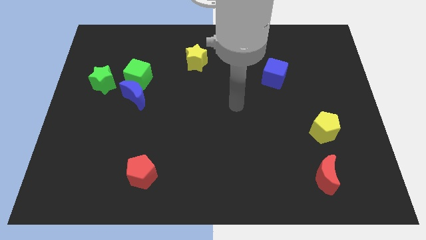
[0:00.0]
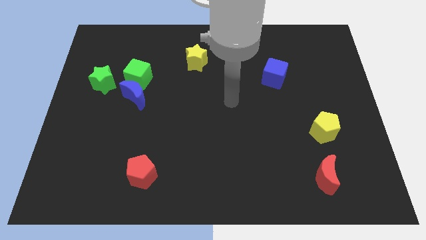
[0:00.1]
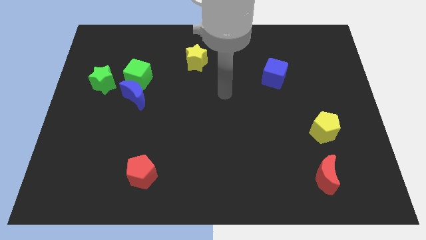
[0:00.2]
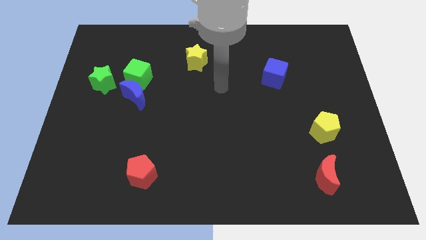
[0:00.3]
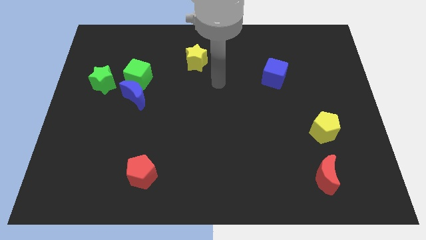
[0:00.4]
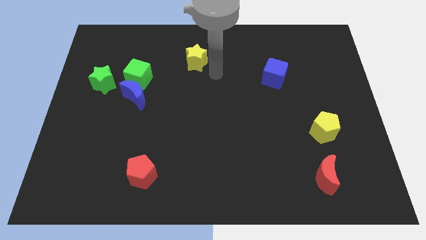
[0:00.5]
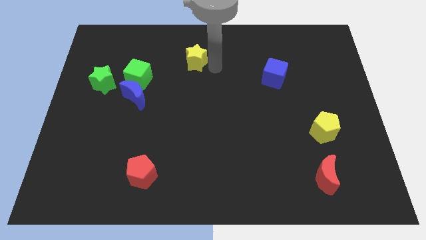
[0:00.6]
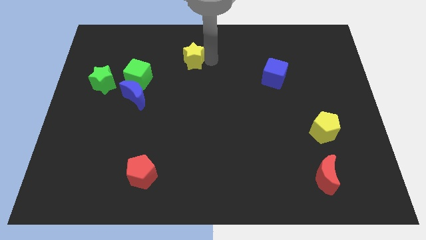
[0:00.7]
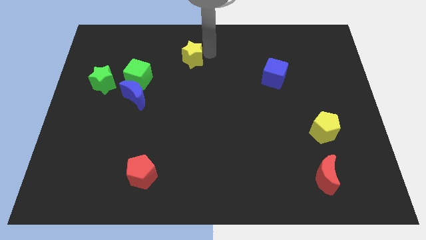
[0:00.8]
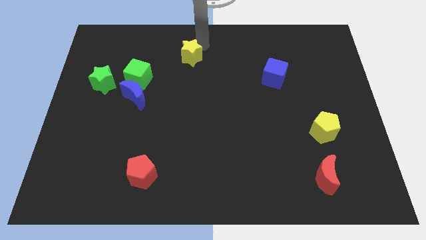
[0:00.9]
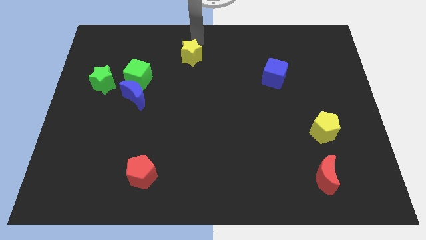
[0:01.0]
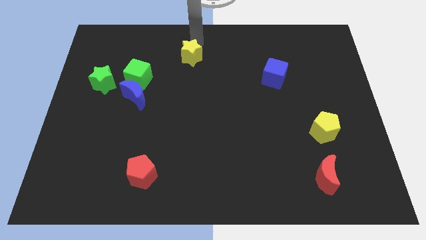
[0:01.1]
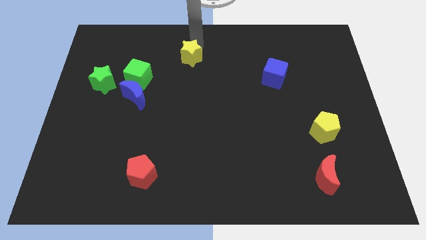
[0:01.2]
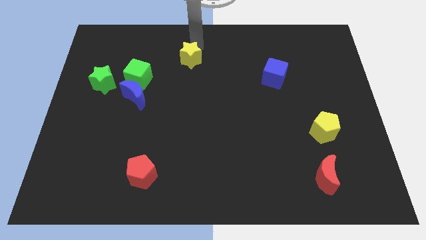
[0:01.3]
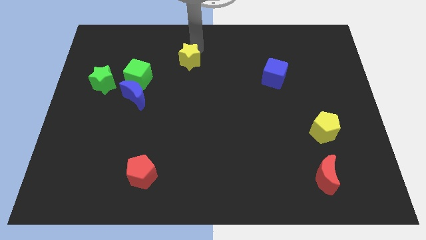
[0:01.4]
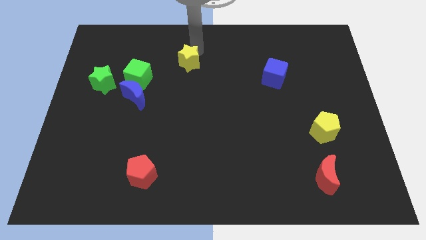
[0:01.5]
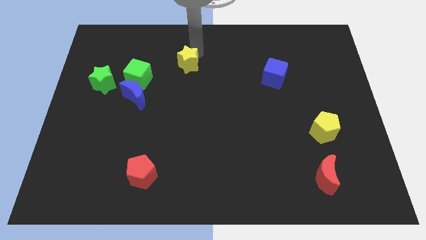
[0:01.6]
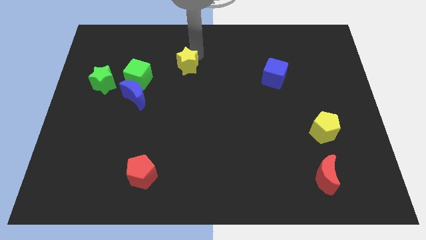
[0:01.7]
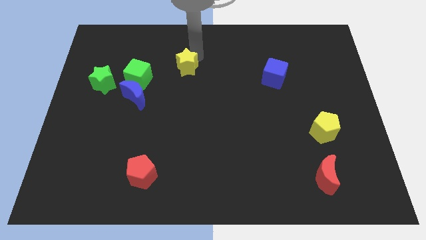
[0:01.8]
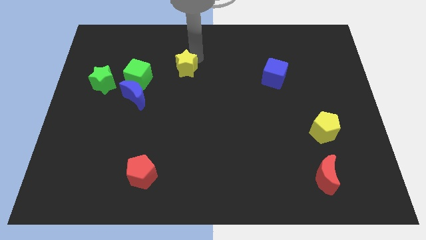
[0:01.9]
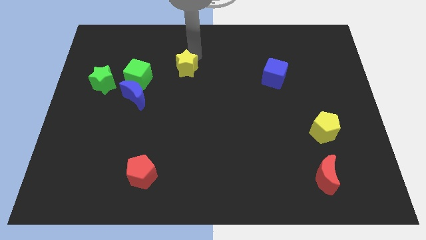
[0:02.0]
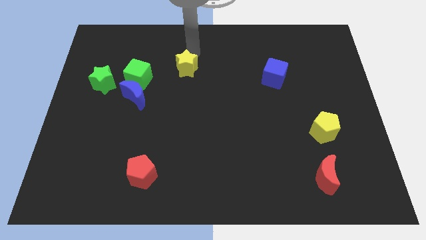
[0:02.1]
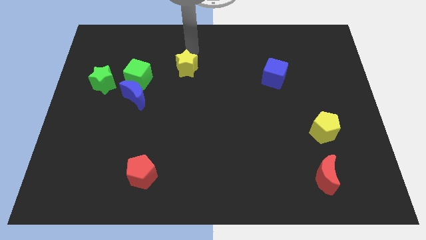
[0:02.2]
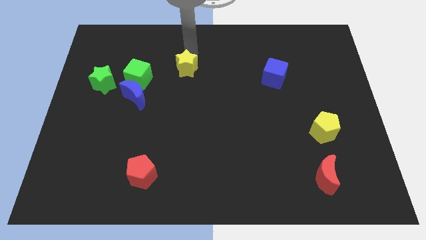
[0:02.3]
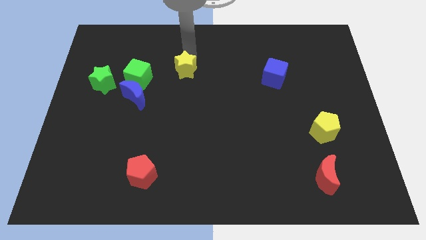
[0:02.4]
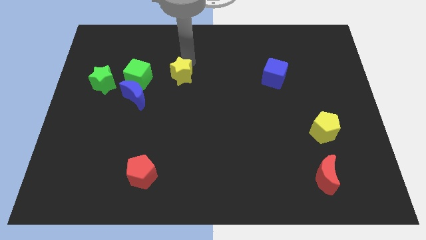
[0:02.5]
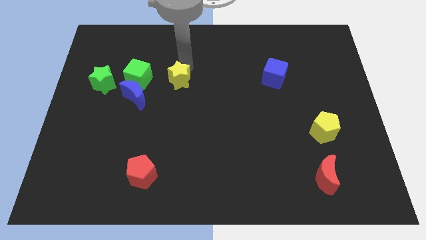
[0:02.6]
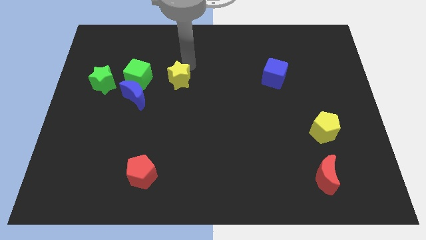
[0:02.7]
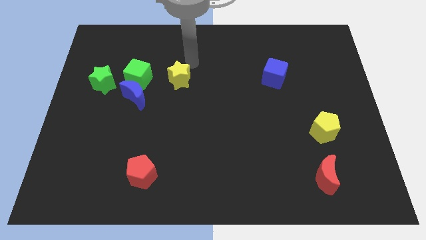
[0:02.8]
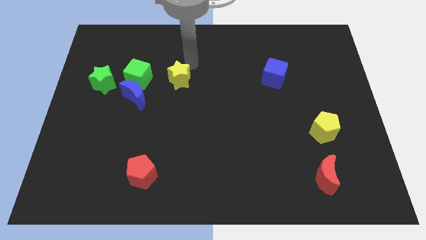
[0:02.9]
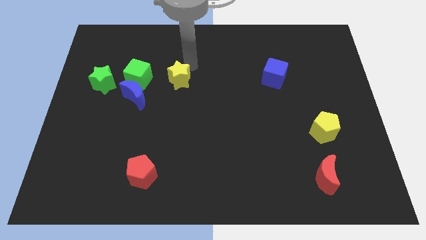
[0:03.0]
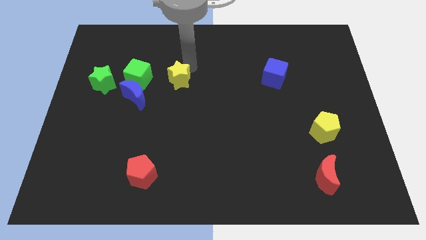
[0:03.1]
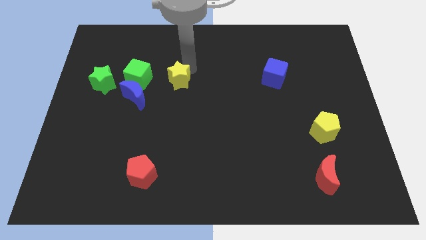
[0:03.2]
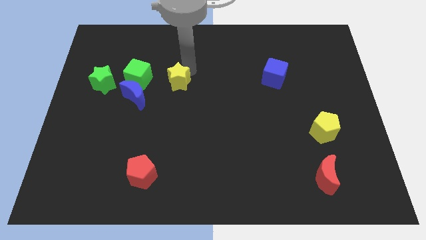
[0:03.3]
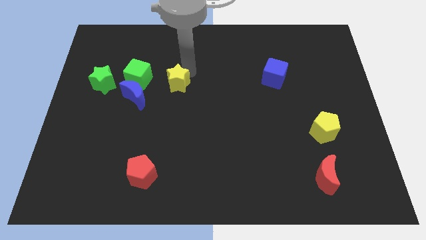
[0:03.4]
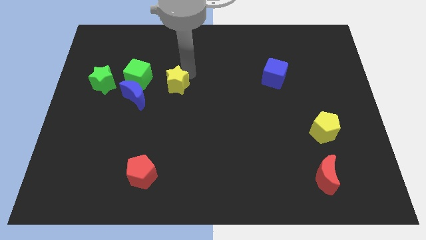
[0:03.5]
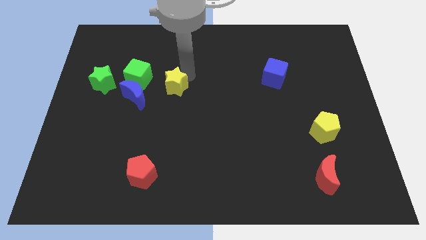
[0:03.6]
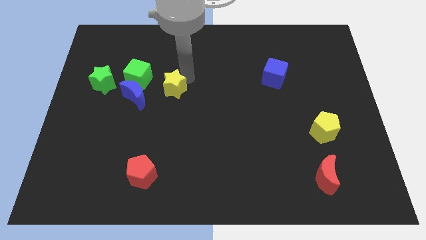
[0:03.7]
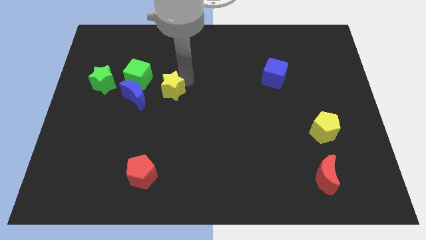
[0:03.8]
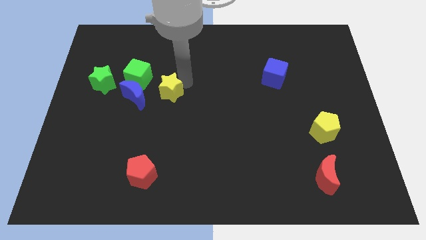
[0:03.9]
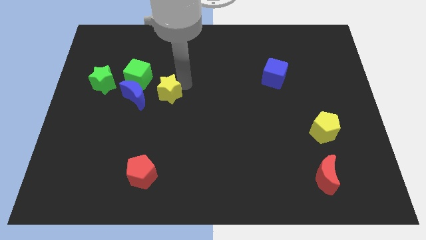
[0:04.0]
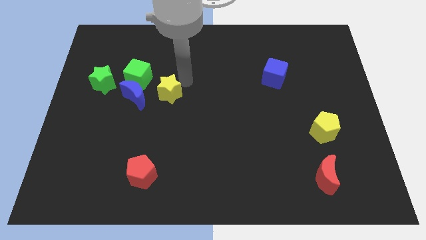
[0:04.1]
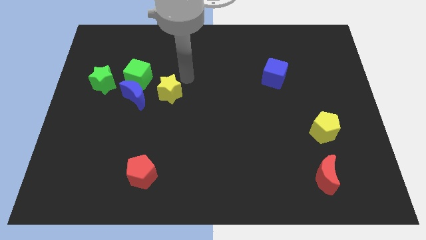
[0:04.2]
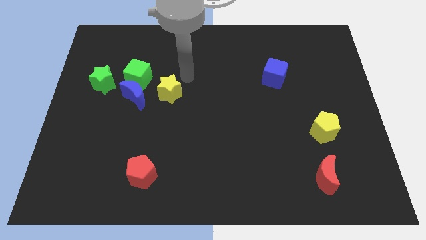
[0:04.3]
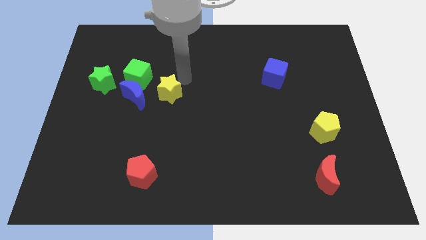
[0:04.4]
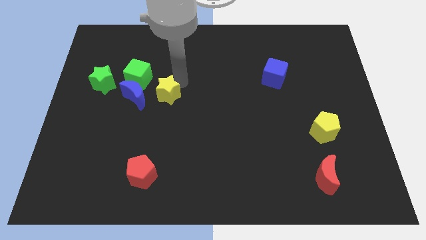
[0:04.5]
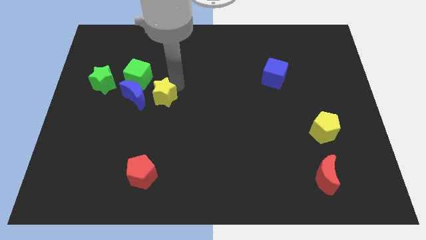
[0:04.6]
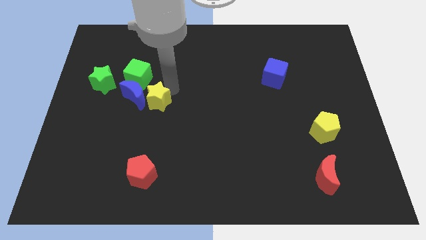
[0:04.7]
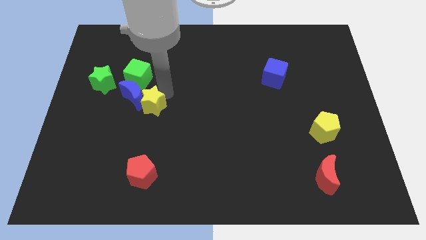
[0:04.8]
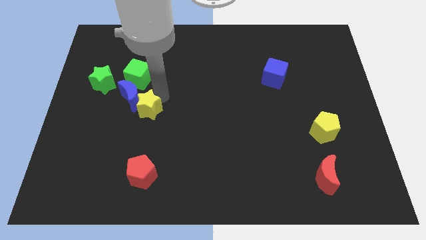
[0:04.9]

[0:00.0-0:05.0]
slide the yellow star to the bottom side of the blue moon

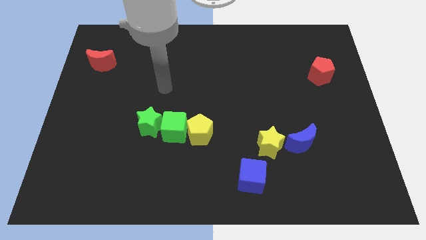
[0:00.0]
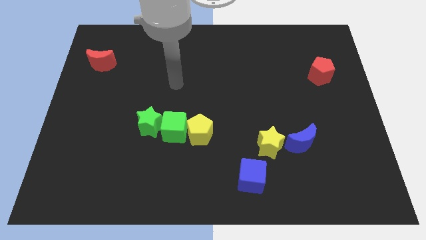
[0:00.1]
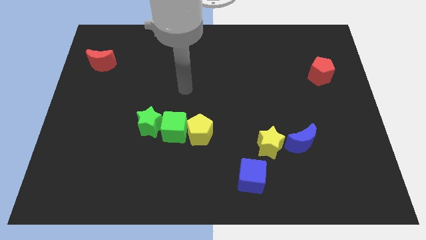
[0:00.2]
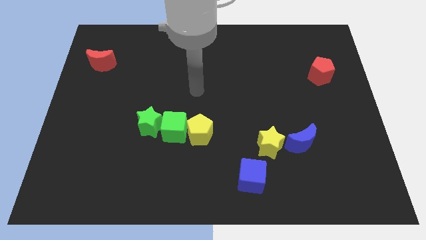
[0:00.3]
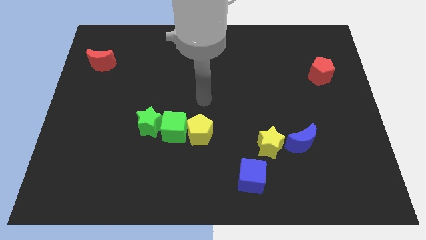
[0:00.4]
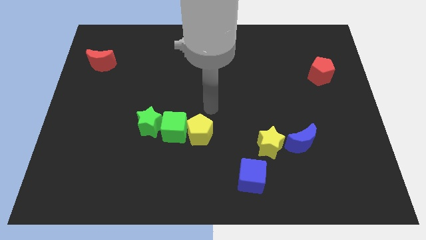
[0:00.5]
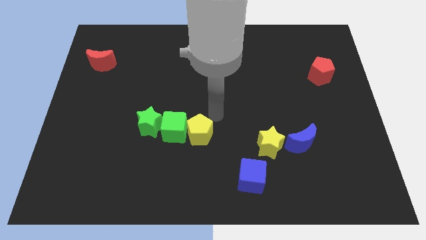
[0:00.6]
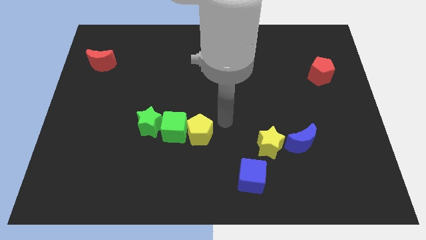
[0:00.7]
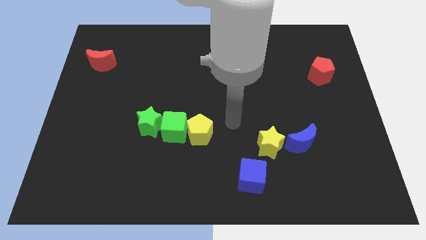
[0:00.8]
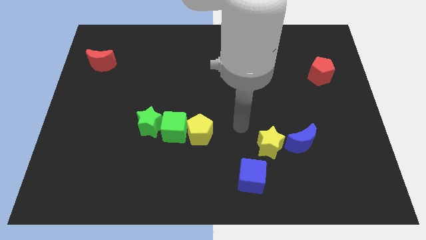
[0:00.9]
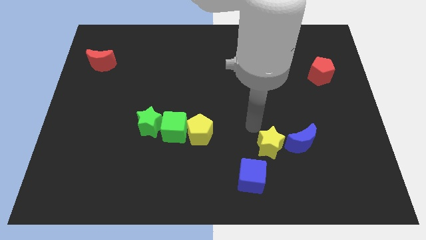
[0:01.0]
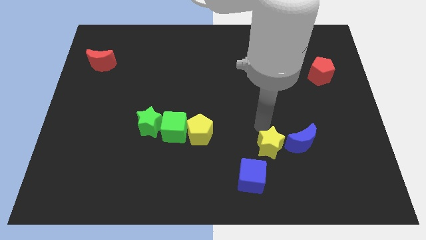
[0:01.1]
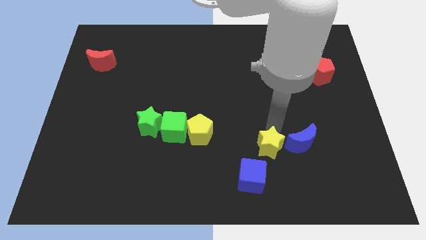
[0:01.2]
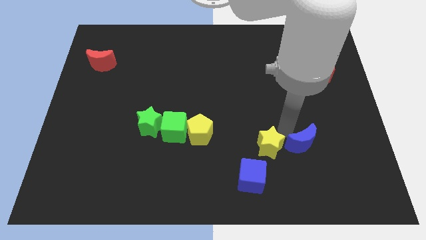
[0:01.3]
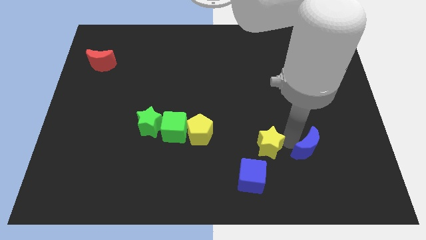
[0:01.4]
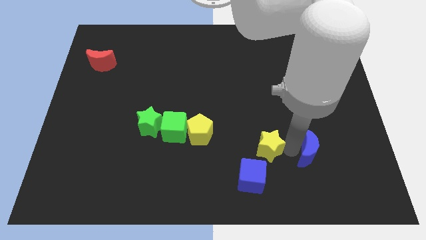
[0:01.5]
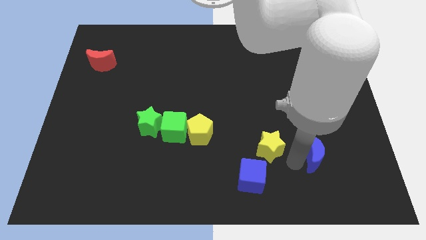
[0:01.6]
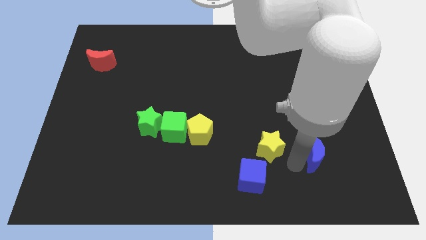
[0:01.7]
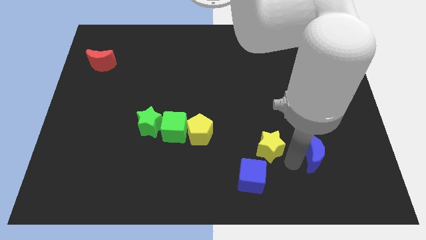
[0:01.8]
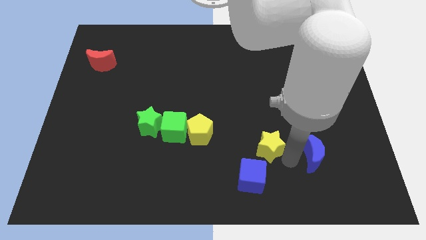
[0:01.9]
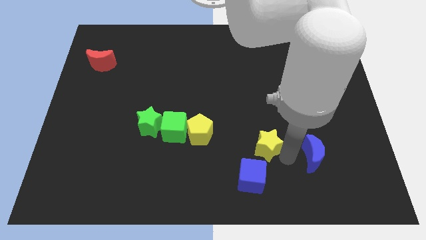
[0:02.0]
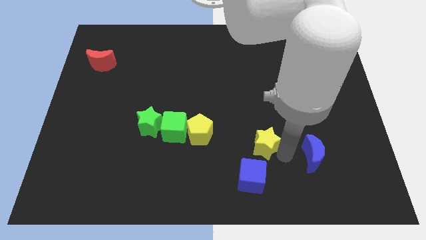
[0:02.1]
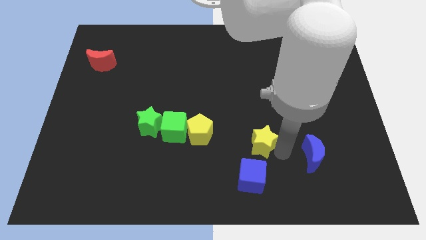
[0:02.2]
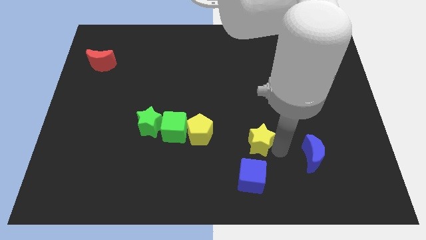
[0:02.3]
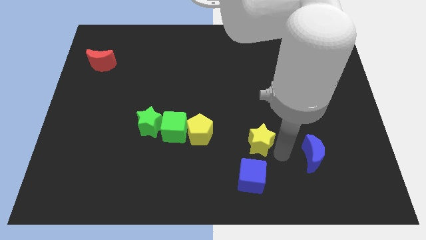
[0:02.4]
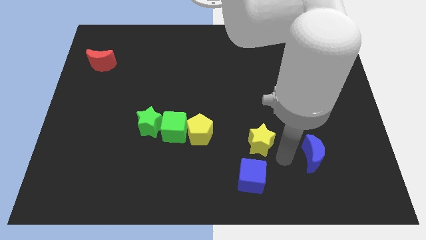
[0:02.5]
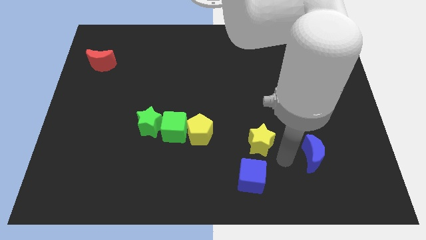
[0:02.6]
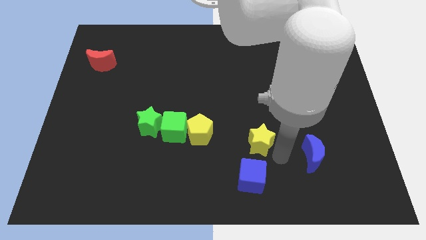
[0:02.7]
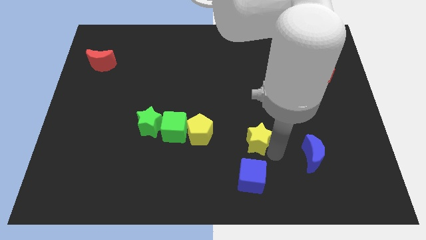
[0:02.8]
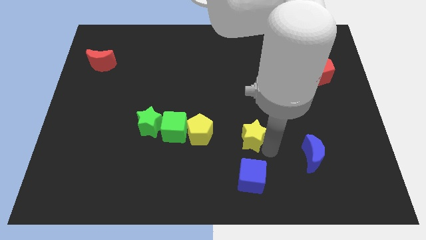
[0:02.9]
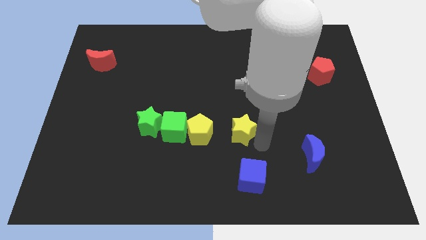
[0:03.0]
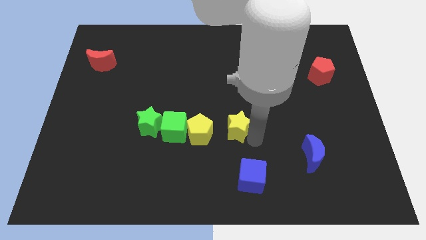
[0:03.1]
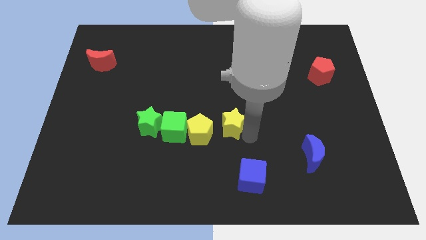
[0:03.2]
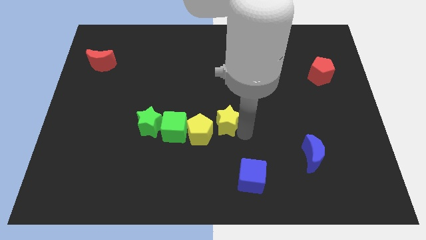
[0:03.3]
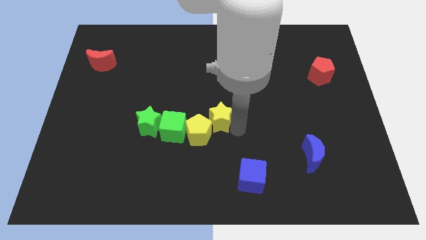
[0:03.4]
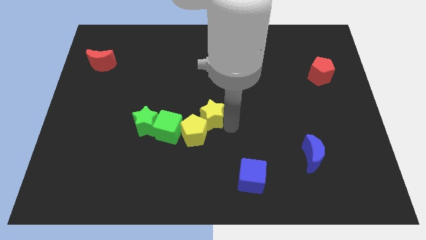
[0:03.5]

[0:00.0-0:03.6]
move the yellow star to the top right side of the green cube
